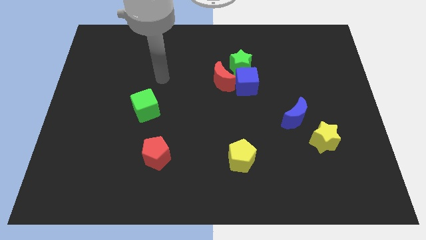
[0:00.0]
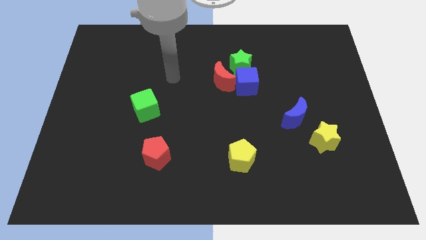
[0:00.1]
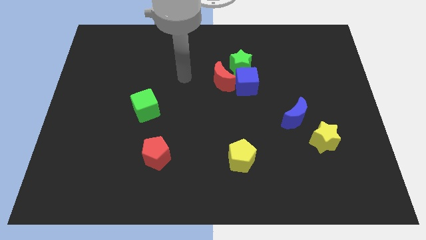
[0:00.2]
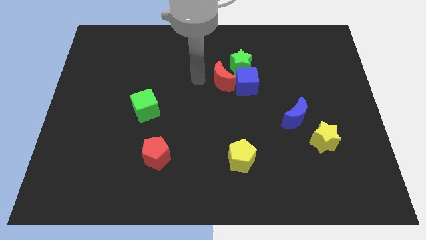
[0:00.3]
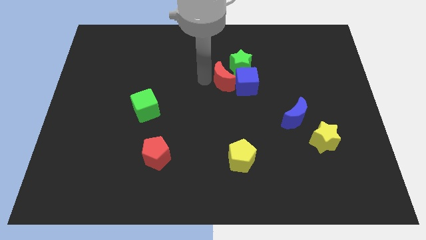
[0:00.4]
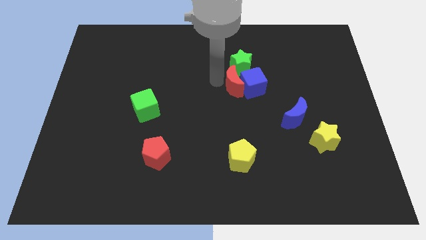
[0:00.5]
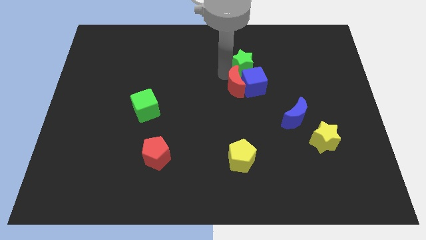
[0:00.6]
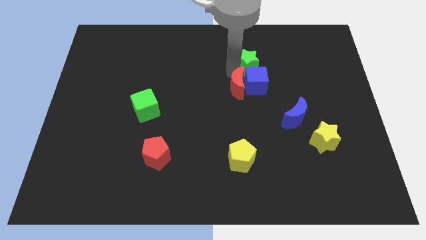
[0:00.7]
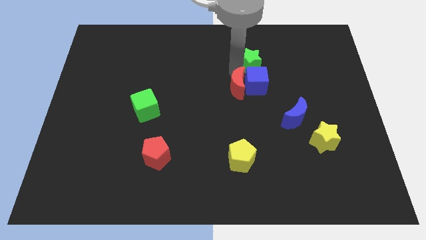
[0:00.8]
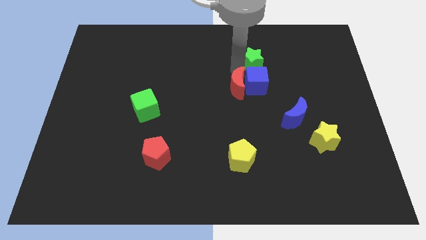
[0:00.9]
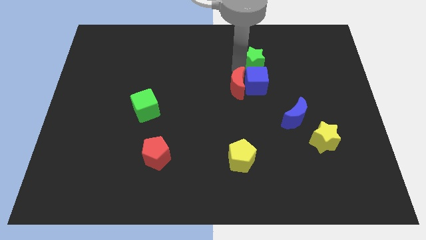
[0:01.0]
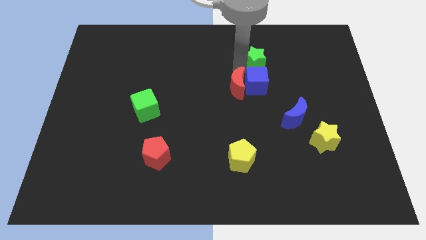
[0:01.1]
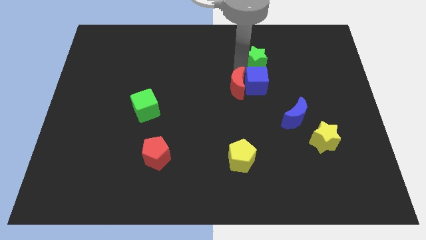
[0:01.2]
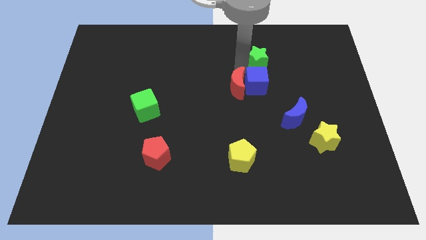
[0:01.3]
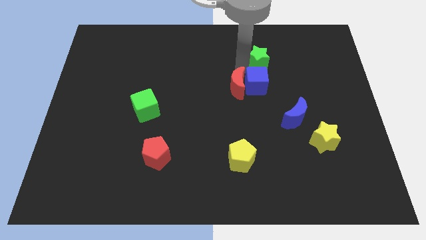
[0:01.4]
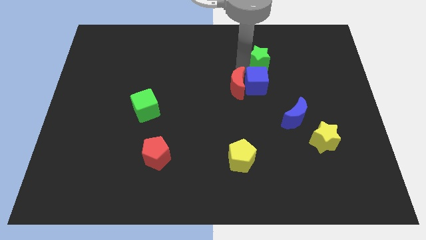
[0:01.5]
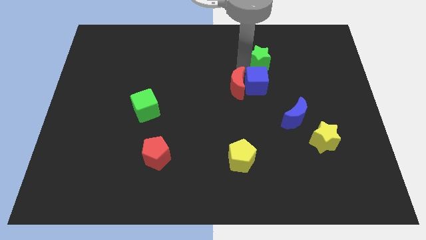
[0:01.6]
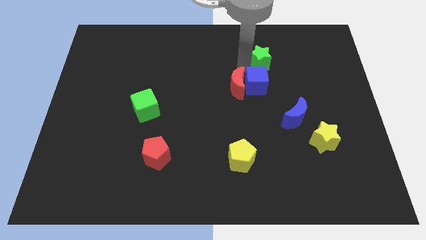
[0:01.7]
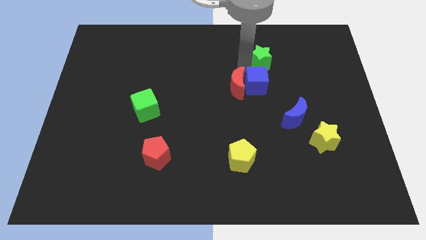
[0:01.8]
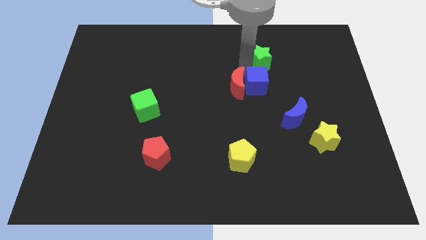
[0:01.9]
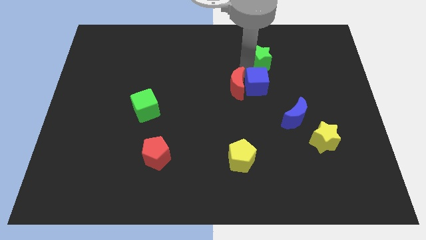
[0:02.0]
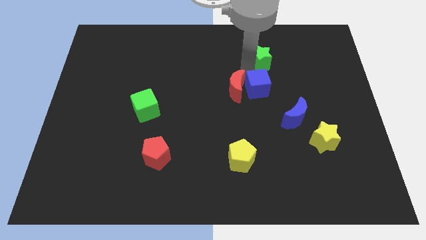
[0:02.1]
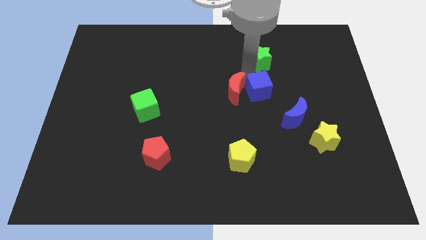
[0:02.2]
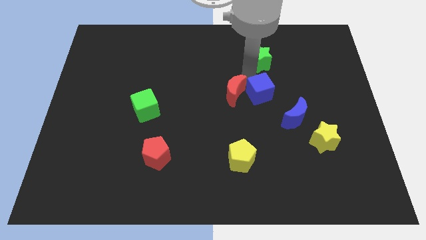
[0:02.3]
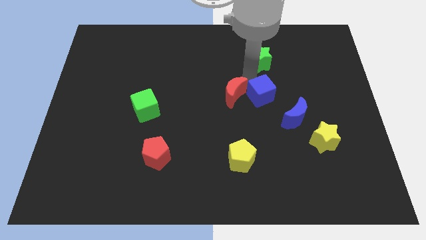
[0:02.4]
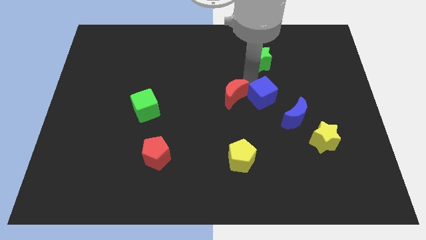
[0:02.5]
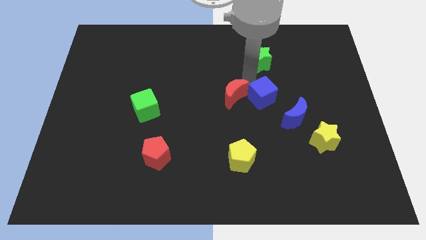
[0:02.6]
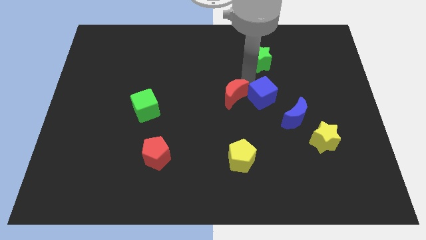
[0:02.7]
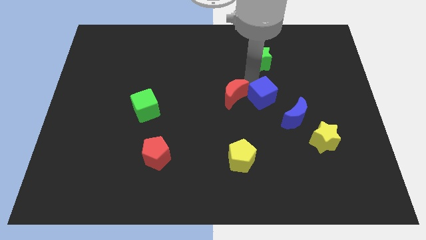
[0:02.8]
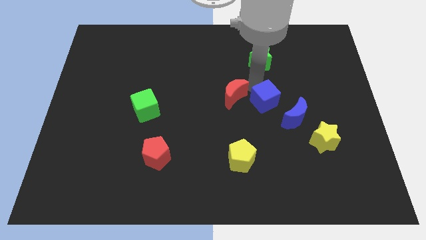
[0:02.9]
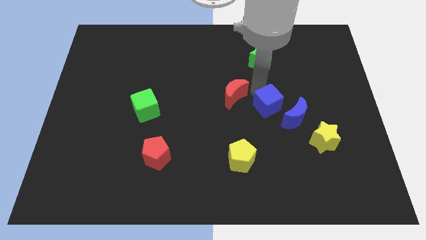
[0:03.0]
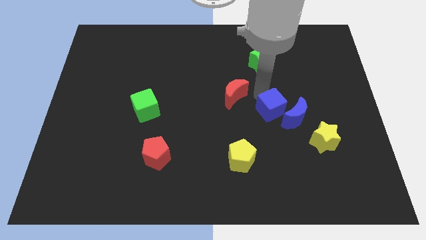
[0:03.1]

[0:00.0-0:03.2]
separate the blue cube from the red moon and green star

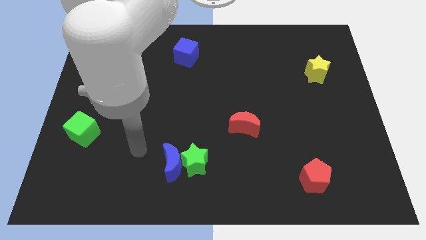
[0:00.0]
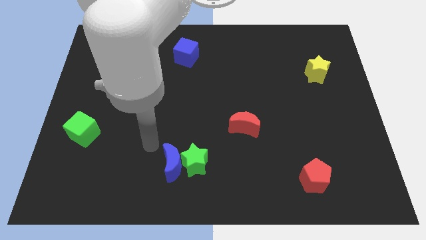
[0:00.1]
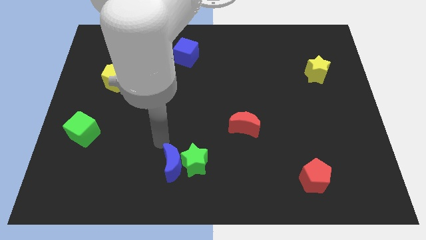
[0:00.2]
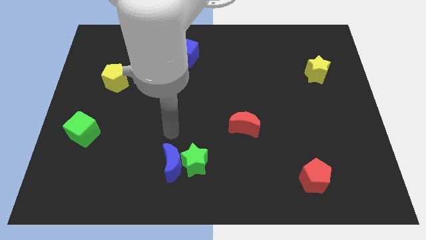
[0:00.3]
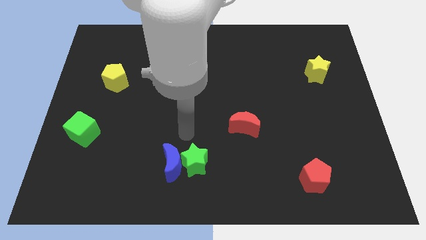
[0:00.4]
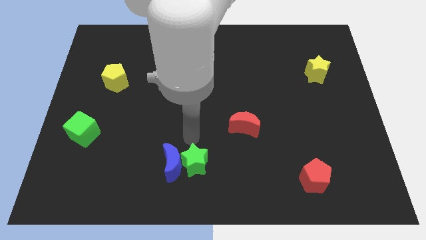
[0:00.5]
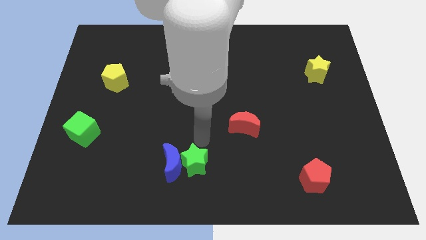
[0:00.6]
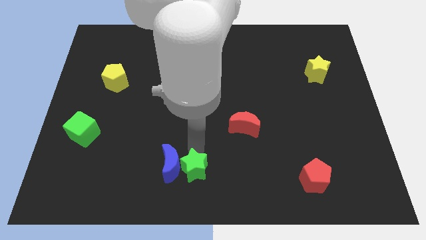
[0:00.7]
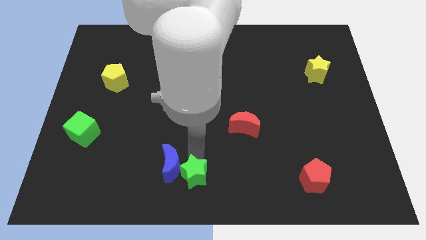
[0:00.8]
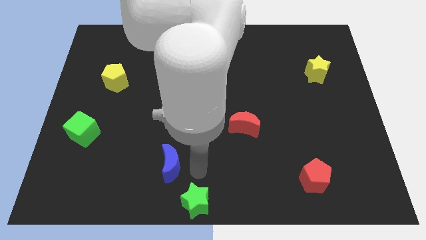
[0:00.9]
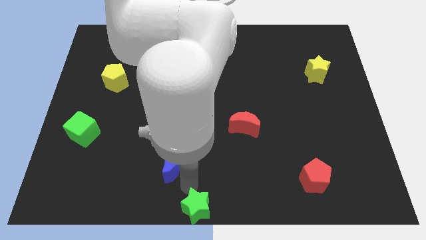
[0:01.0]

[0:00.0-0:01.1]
move the blue moon away from the green star

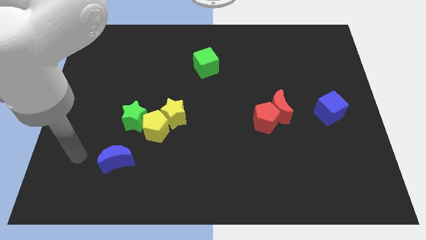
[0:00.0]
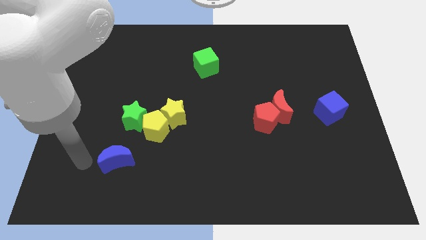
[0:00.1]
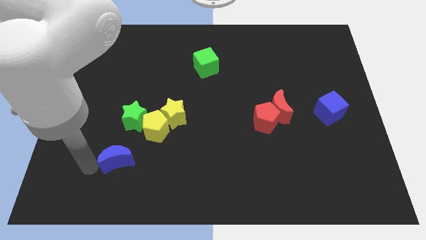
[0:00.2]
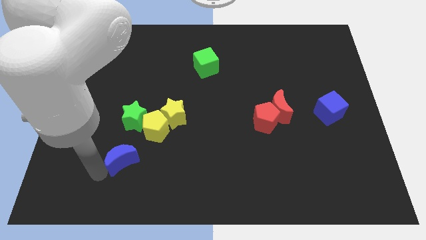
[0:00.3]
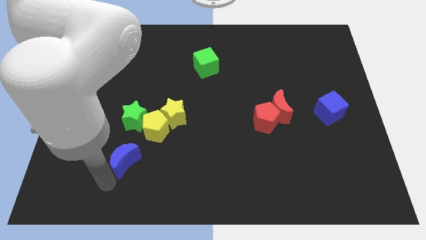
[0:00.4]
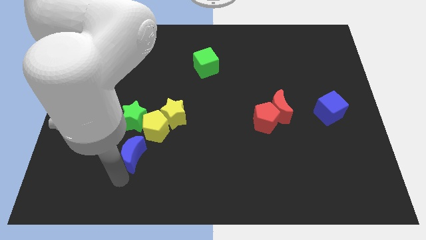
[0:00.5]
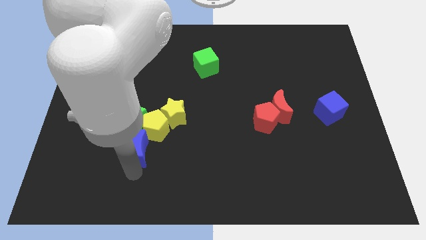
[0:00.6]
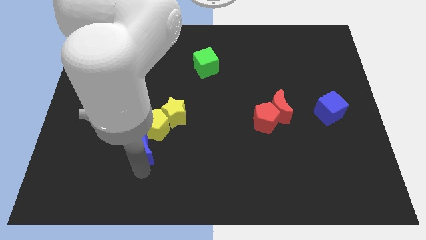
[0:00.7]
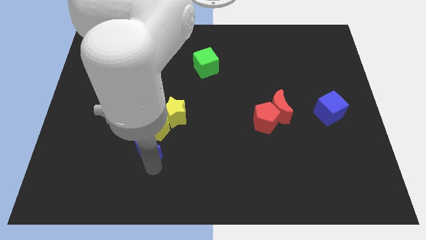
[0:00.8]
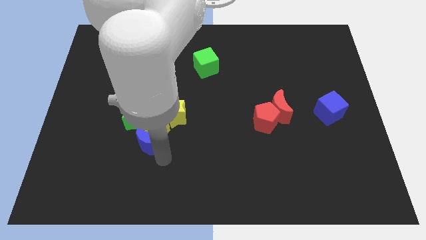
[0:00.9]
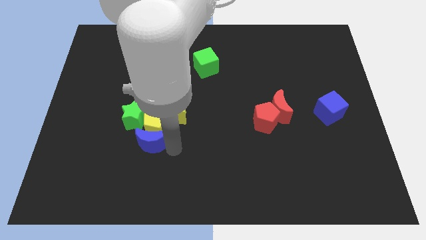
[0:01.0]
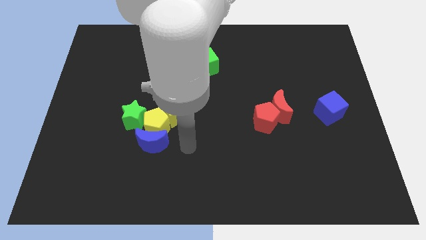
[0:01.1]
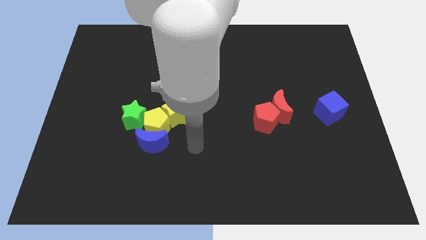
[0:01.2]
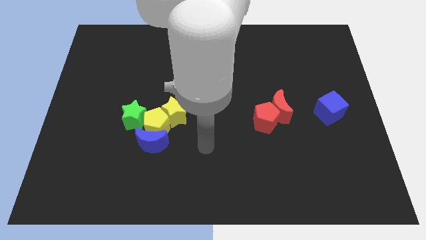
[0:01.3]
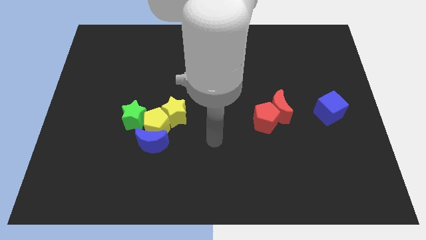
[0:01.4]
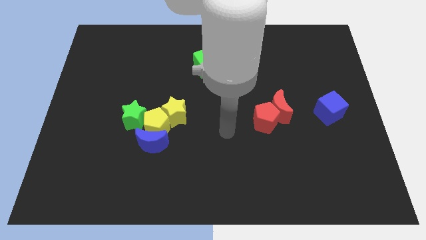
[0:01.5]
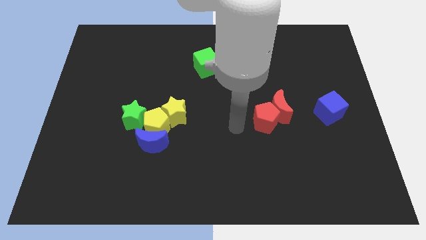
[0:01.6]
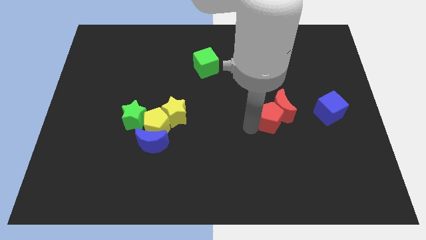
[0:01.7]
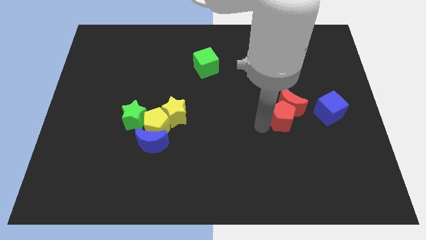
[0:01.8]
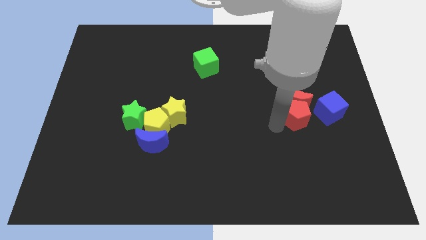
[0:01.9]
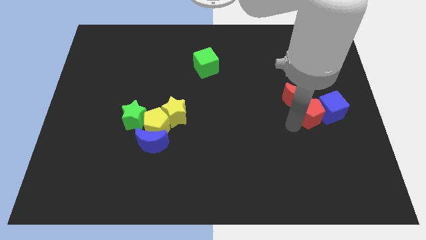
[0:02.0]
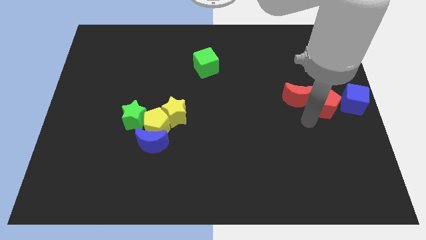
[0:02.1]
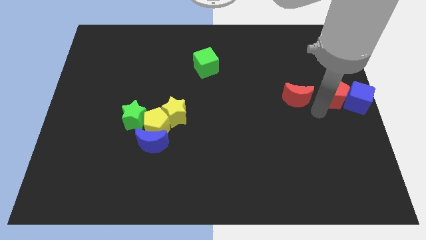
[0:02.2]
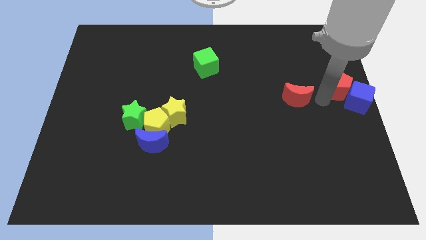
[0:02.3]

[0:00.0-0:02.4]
move the red moon away from the red pentagon

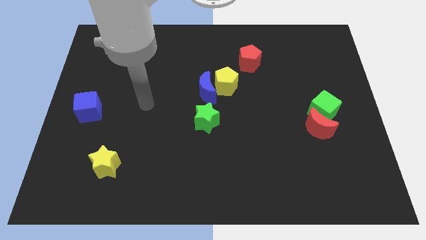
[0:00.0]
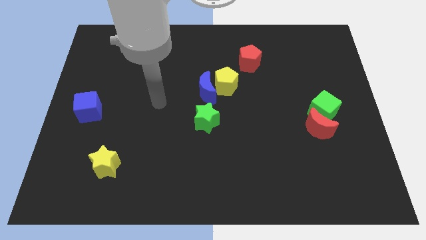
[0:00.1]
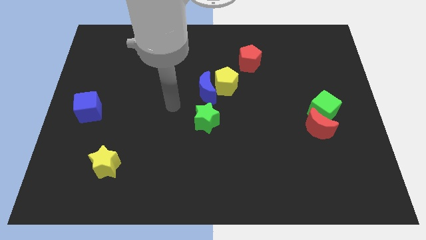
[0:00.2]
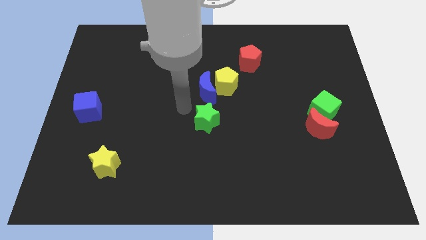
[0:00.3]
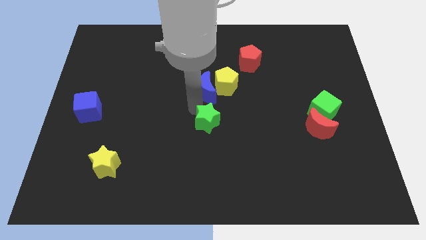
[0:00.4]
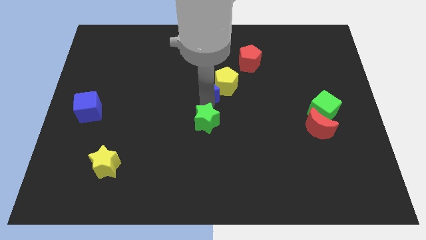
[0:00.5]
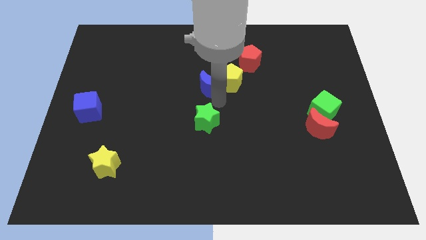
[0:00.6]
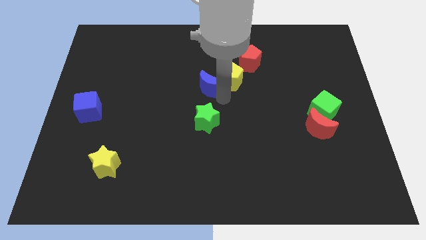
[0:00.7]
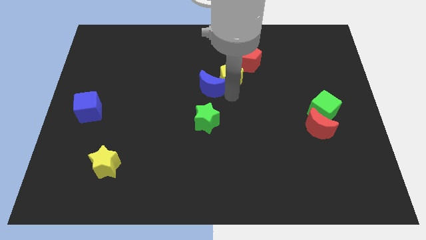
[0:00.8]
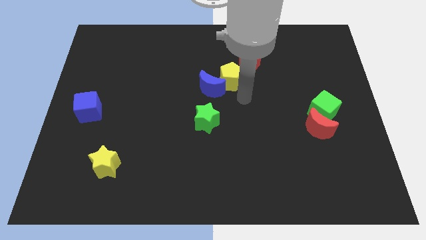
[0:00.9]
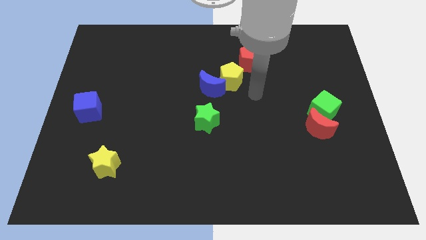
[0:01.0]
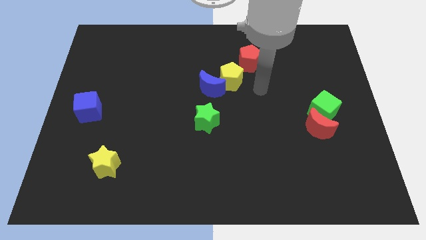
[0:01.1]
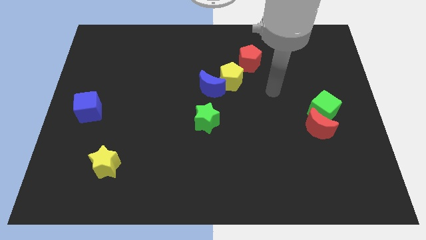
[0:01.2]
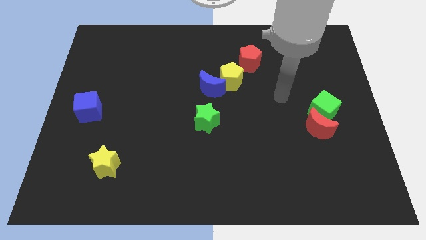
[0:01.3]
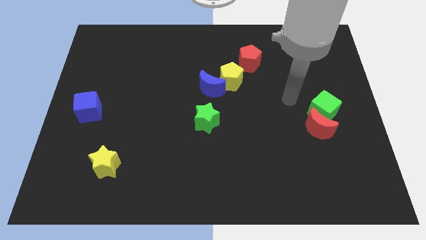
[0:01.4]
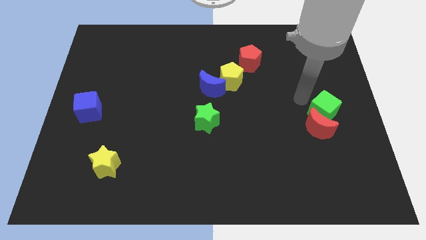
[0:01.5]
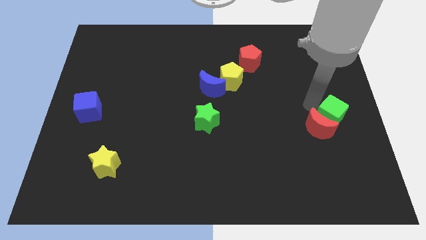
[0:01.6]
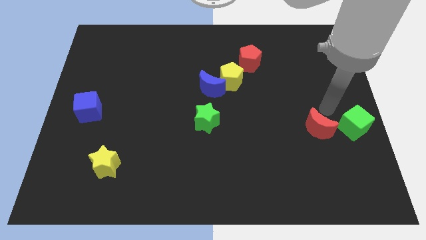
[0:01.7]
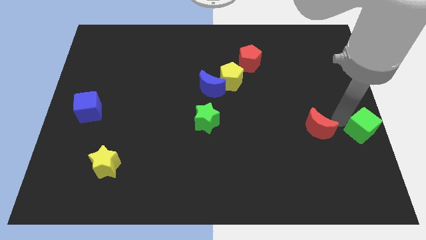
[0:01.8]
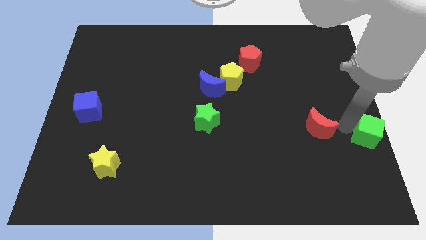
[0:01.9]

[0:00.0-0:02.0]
pull the red moon apart from the green cube

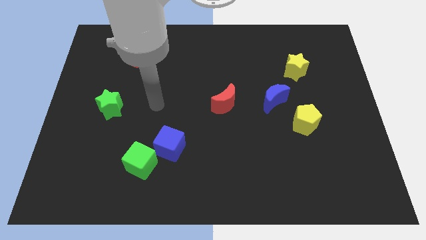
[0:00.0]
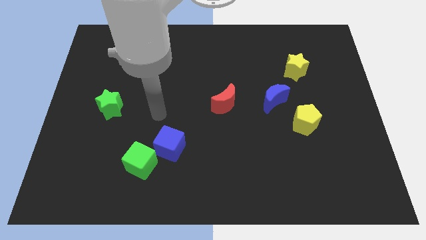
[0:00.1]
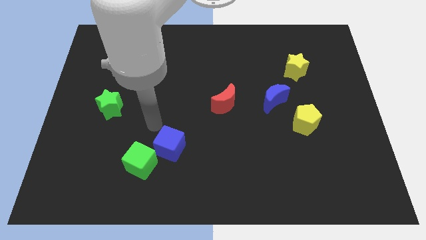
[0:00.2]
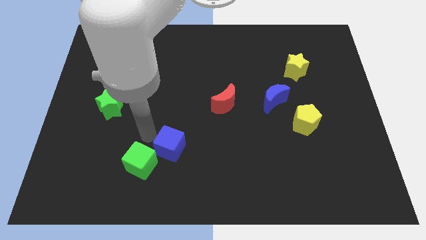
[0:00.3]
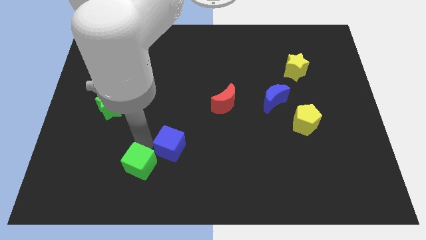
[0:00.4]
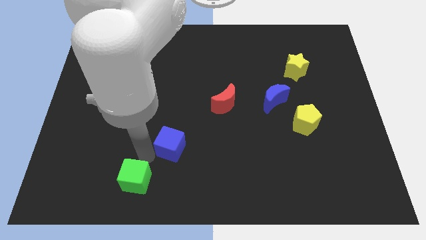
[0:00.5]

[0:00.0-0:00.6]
pull the blue cube apart from the green cube

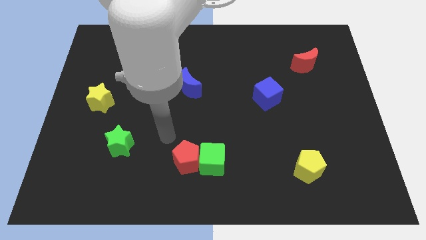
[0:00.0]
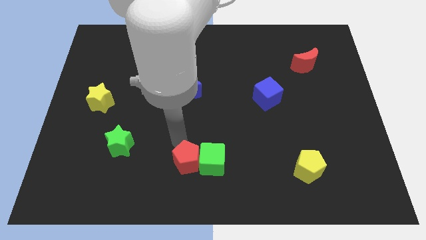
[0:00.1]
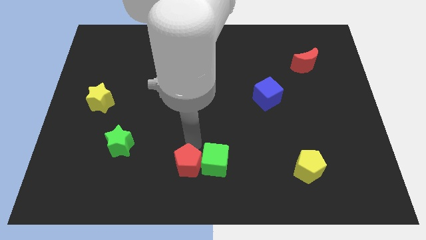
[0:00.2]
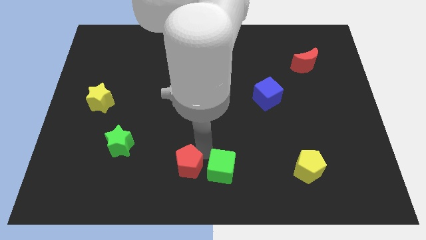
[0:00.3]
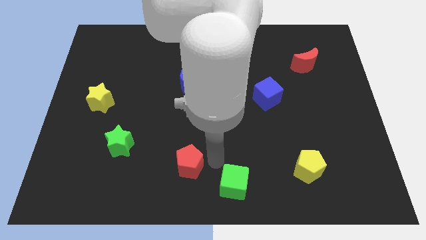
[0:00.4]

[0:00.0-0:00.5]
move the red pentagon away from the green cube